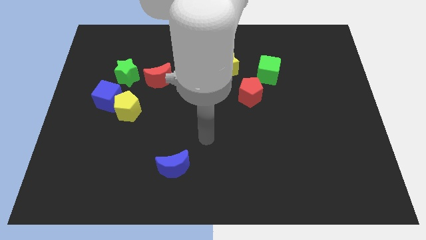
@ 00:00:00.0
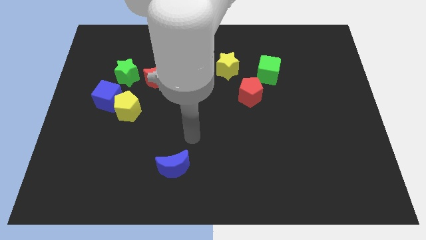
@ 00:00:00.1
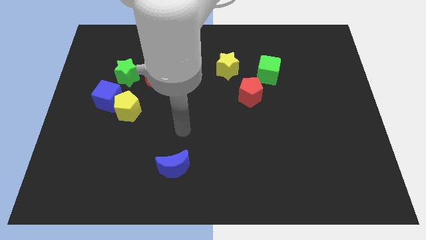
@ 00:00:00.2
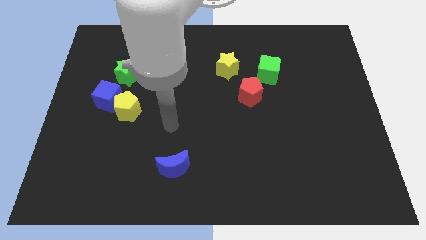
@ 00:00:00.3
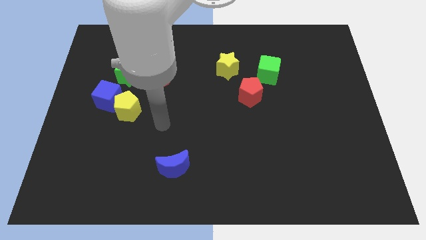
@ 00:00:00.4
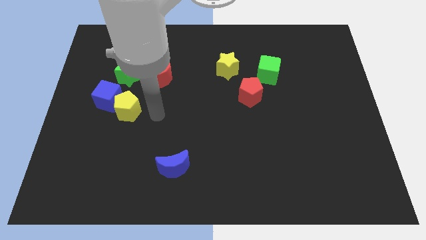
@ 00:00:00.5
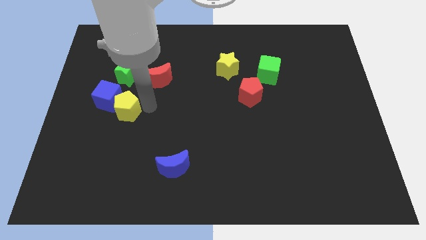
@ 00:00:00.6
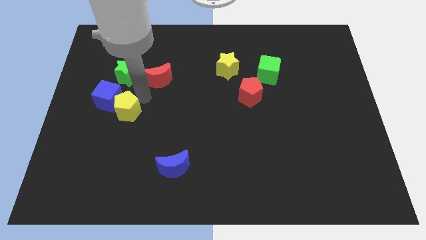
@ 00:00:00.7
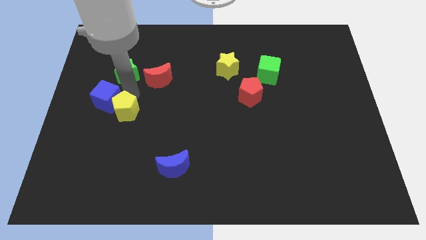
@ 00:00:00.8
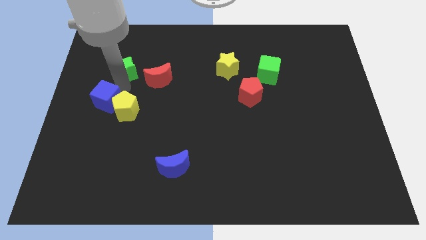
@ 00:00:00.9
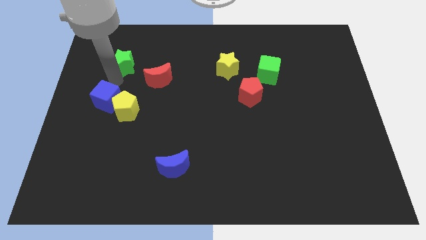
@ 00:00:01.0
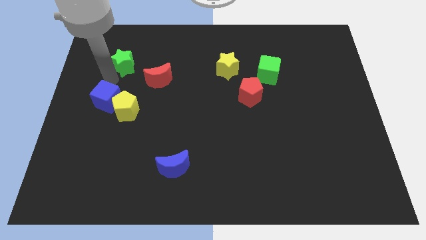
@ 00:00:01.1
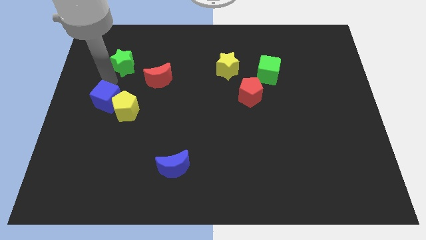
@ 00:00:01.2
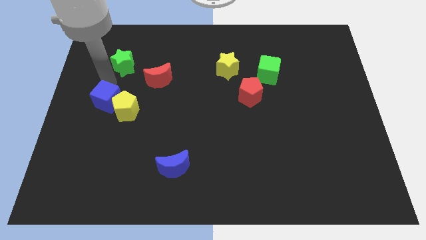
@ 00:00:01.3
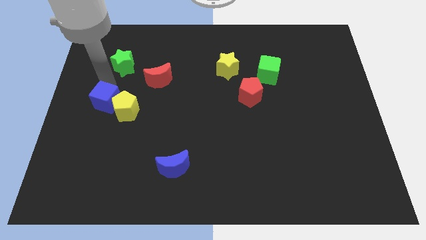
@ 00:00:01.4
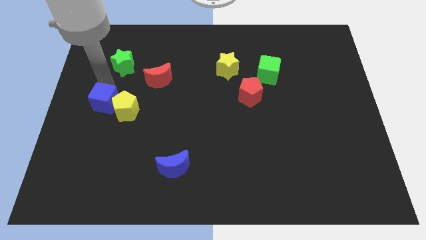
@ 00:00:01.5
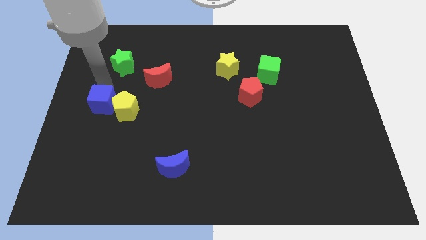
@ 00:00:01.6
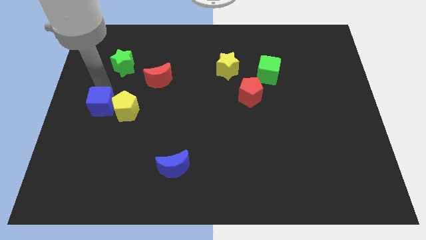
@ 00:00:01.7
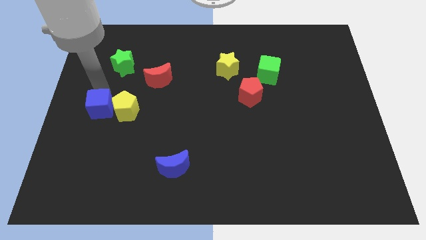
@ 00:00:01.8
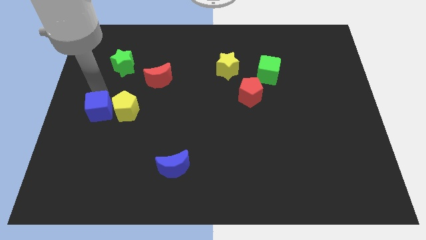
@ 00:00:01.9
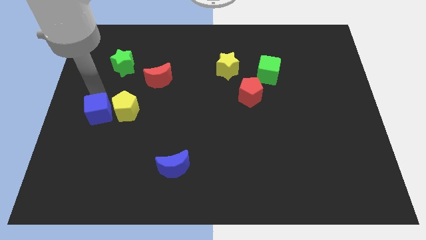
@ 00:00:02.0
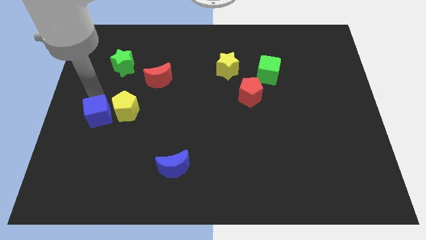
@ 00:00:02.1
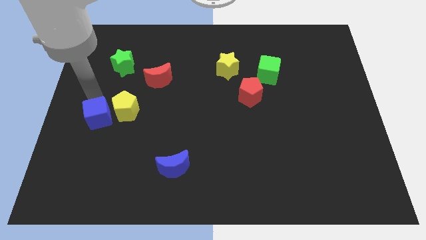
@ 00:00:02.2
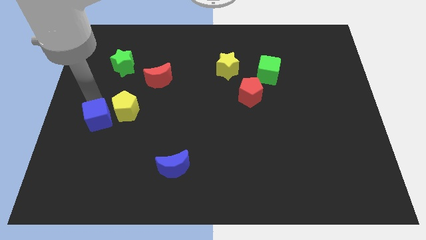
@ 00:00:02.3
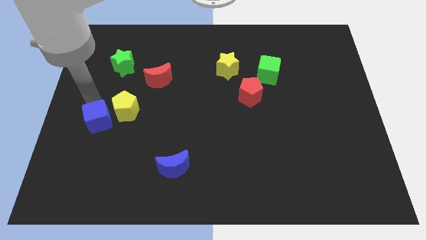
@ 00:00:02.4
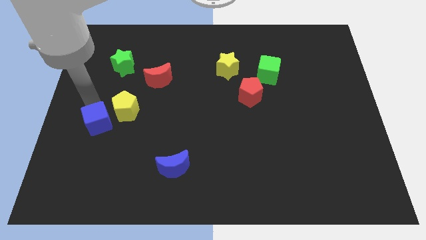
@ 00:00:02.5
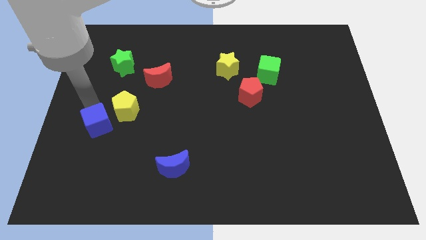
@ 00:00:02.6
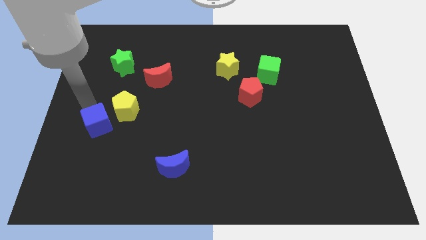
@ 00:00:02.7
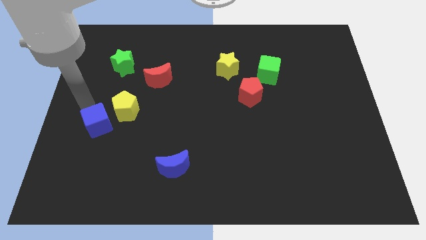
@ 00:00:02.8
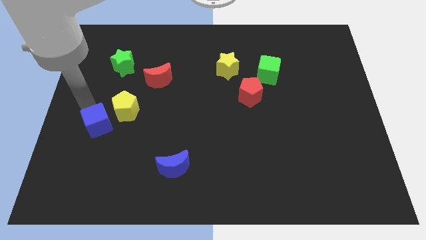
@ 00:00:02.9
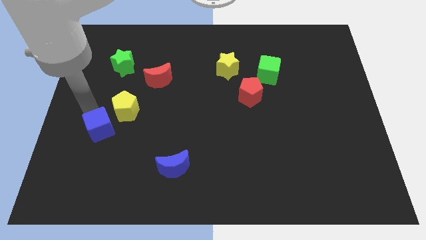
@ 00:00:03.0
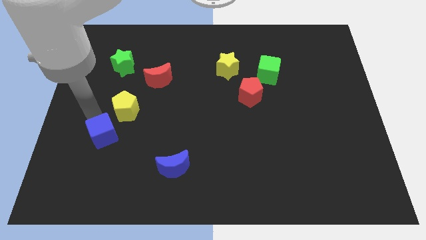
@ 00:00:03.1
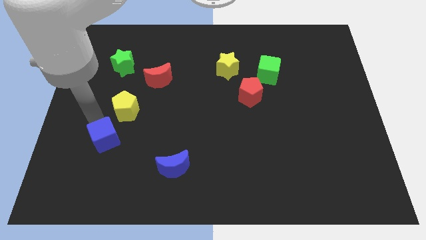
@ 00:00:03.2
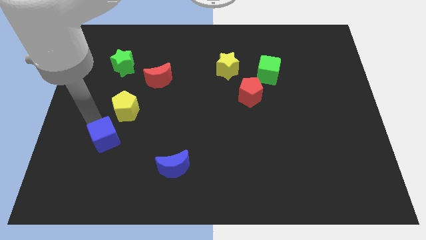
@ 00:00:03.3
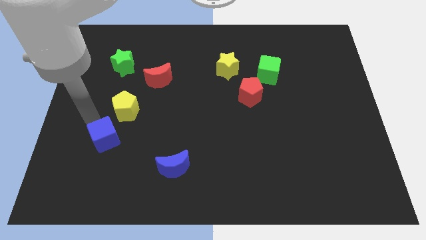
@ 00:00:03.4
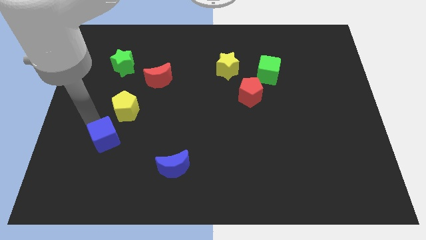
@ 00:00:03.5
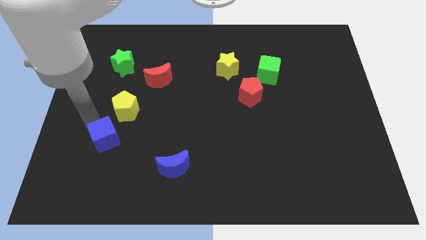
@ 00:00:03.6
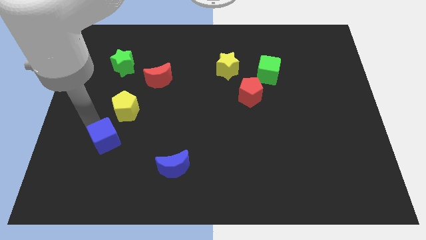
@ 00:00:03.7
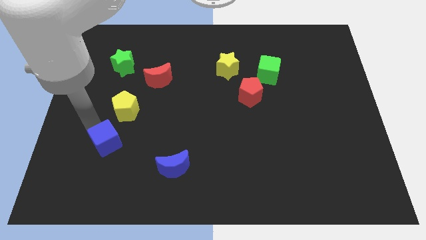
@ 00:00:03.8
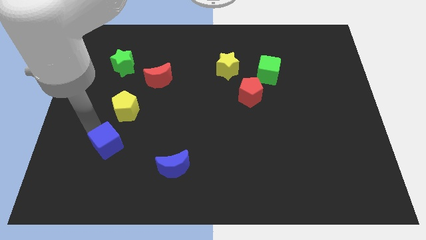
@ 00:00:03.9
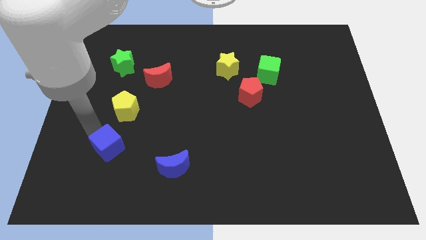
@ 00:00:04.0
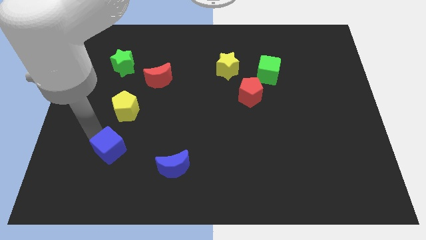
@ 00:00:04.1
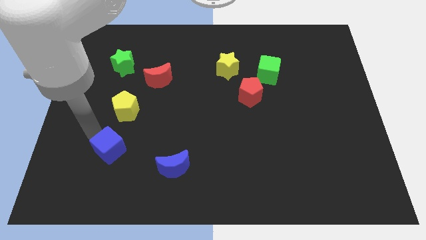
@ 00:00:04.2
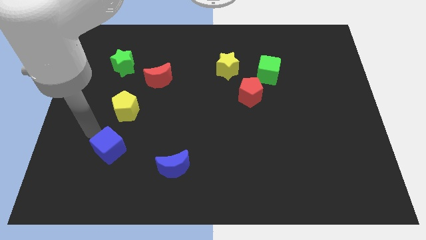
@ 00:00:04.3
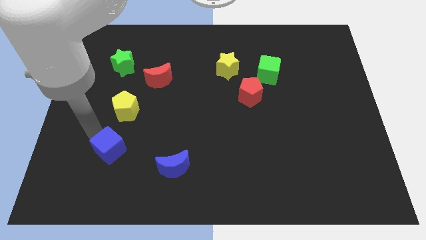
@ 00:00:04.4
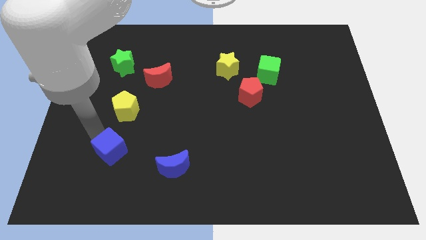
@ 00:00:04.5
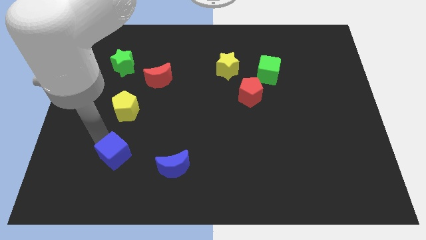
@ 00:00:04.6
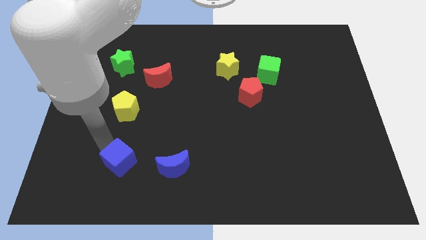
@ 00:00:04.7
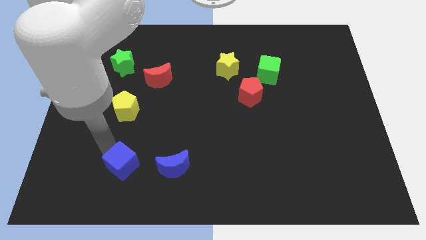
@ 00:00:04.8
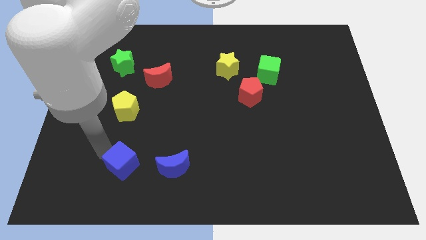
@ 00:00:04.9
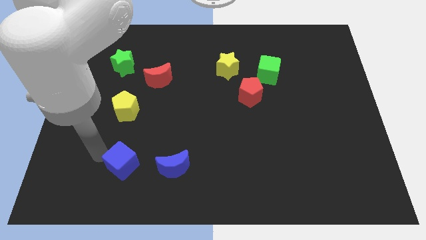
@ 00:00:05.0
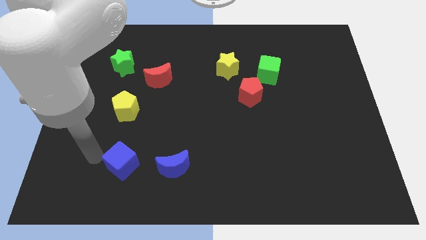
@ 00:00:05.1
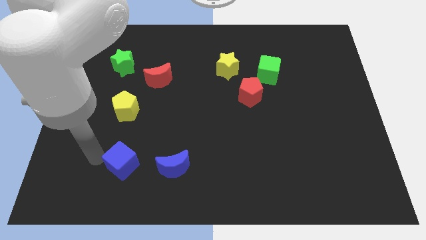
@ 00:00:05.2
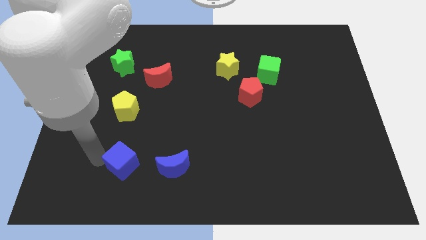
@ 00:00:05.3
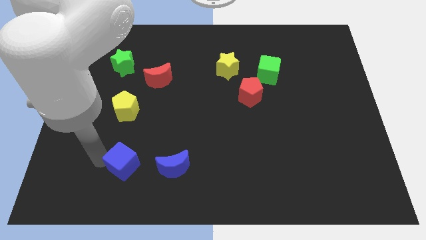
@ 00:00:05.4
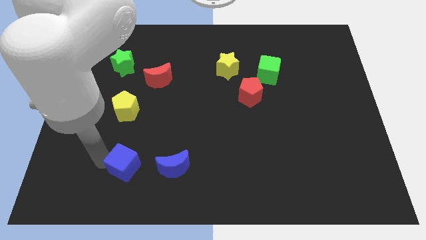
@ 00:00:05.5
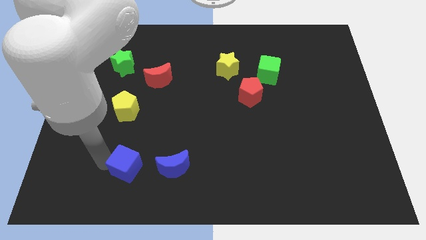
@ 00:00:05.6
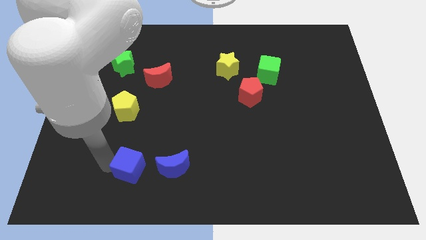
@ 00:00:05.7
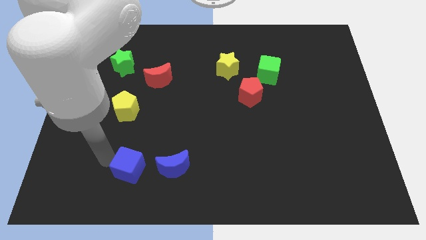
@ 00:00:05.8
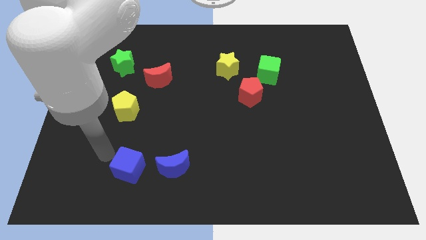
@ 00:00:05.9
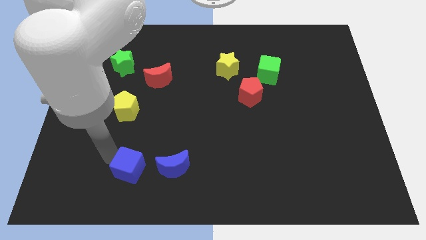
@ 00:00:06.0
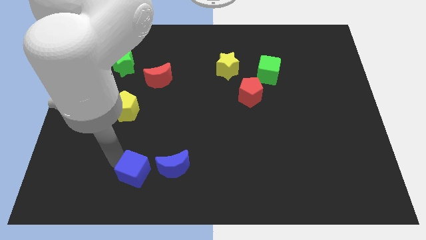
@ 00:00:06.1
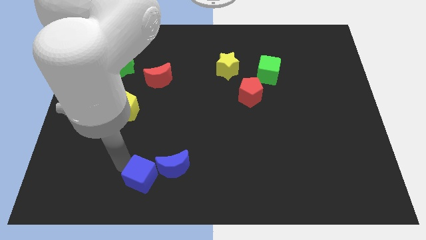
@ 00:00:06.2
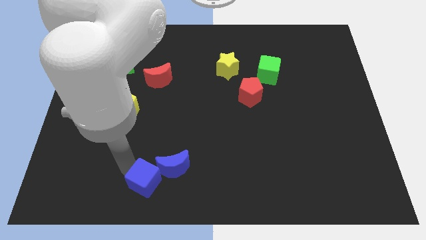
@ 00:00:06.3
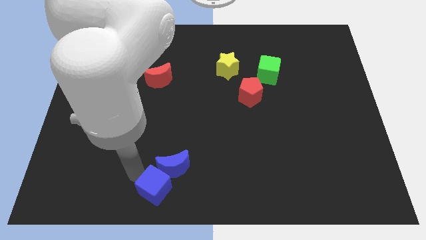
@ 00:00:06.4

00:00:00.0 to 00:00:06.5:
slide the blue cube to the bottom
